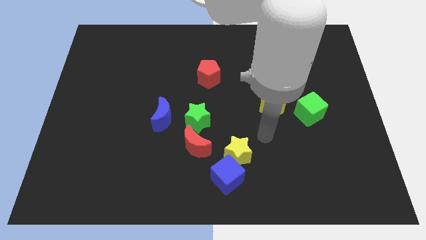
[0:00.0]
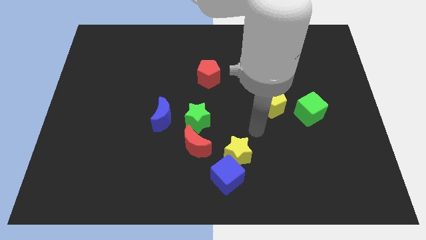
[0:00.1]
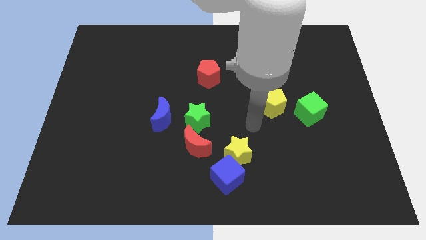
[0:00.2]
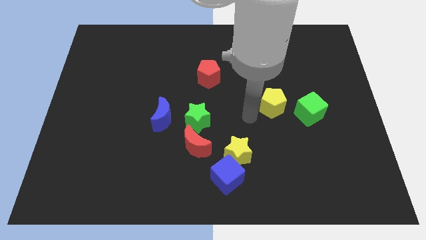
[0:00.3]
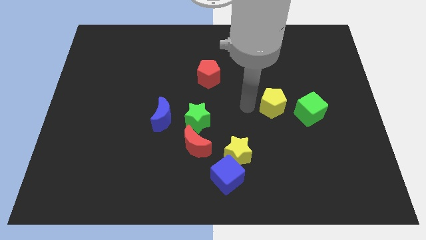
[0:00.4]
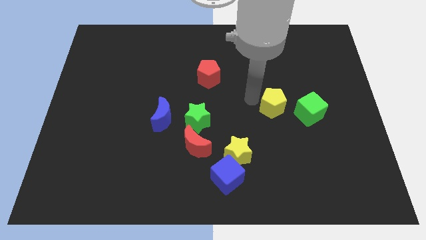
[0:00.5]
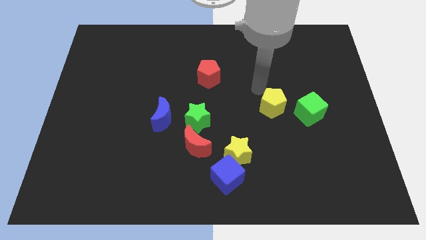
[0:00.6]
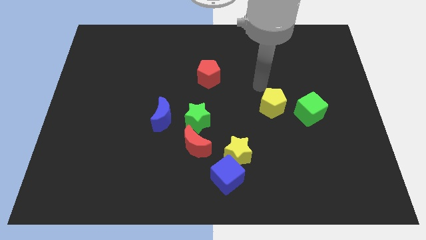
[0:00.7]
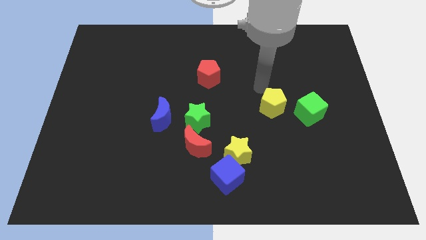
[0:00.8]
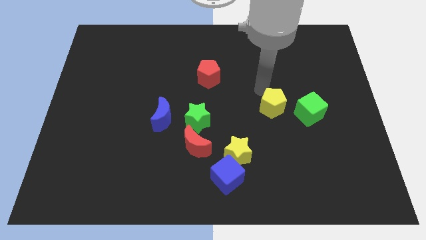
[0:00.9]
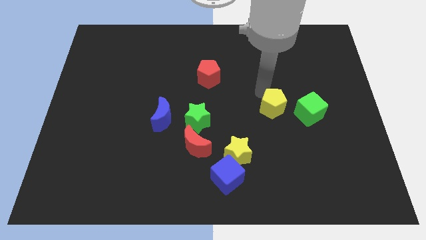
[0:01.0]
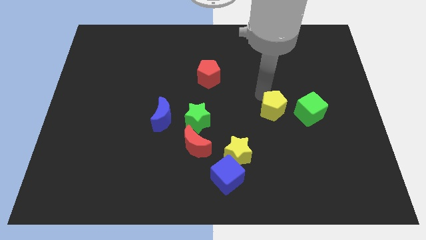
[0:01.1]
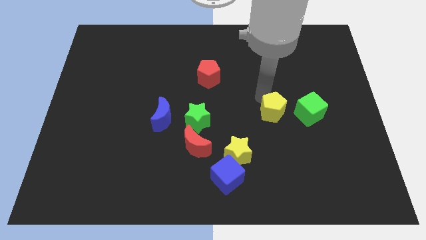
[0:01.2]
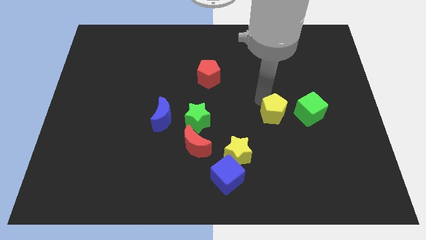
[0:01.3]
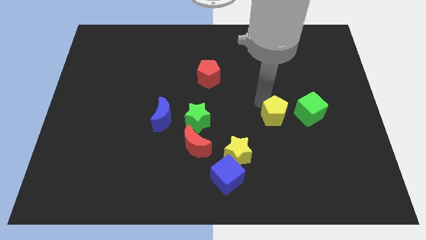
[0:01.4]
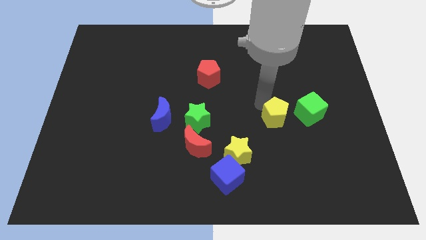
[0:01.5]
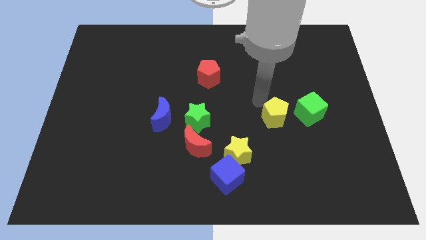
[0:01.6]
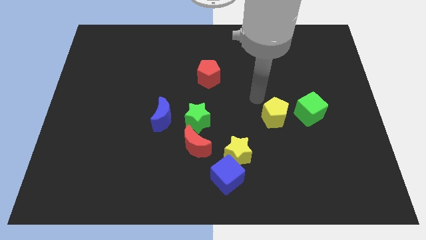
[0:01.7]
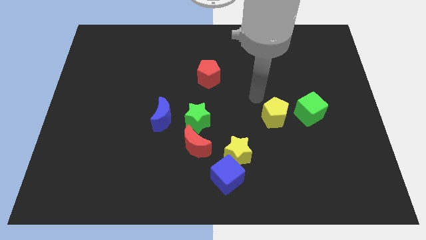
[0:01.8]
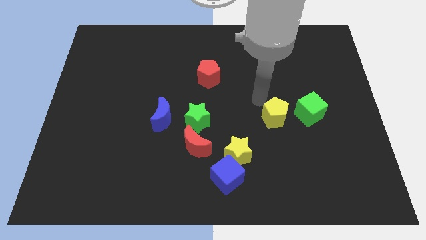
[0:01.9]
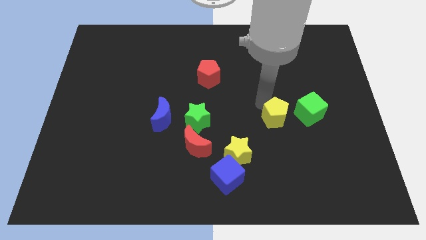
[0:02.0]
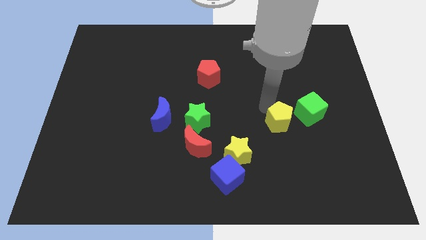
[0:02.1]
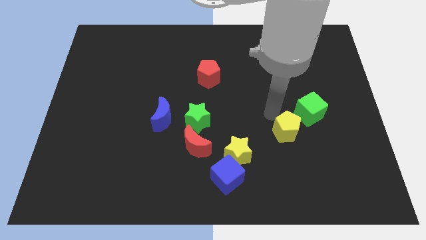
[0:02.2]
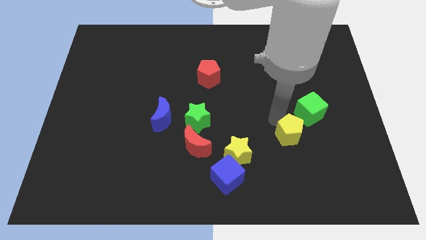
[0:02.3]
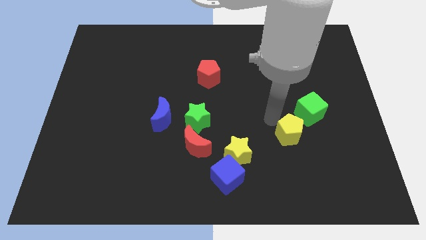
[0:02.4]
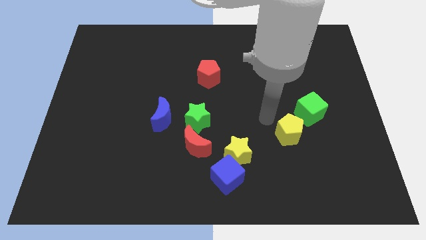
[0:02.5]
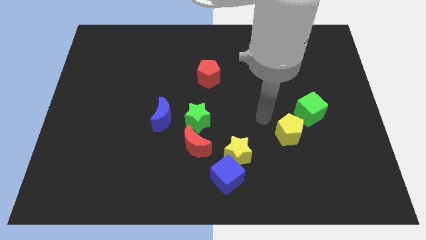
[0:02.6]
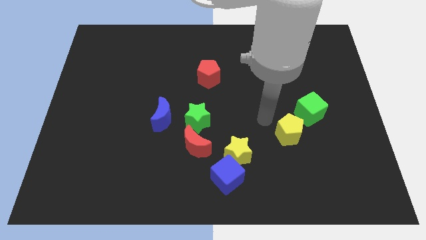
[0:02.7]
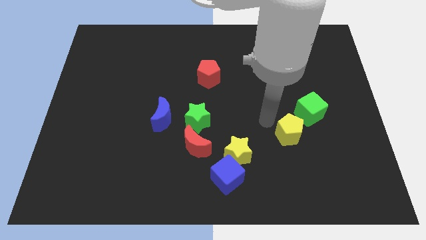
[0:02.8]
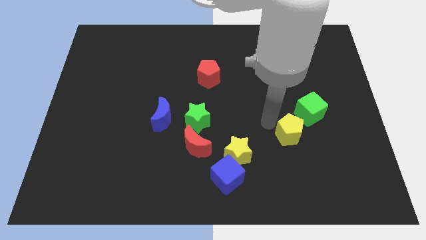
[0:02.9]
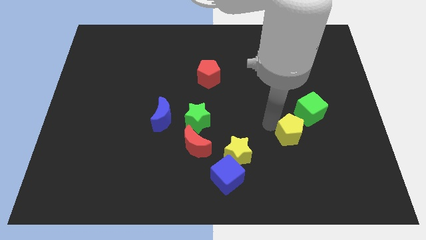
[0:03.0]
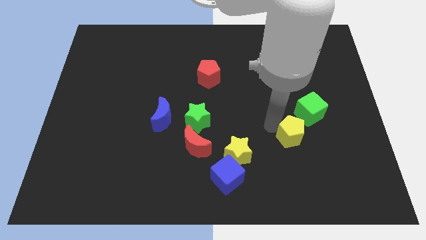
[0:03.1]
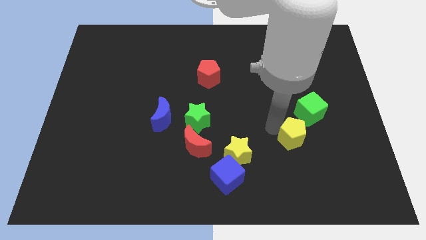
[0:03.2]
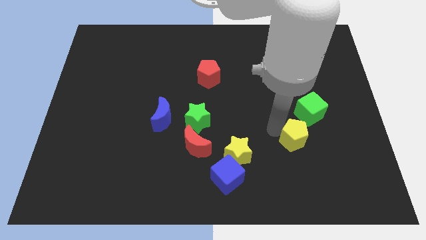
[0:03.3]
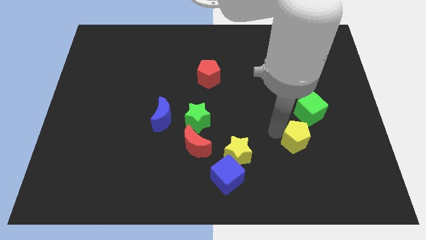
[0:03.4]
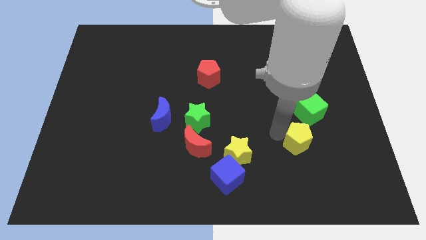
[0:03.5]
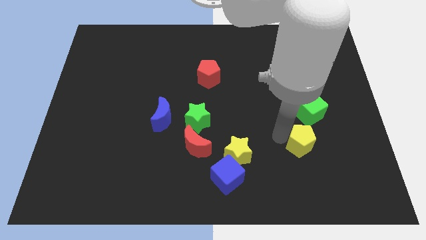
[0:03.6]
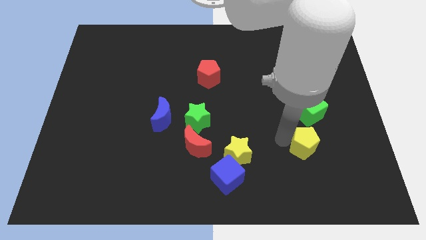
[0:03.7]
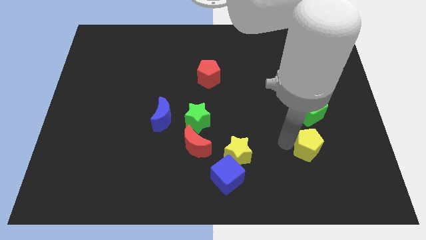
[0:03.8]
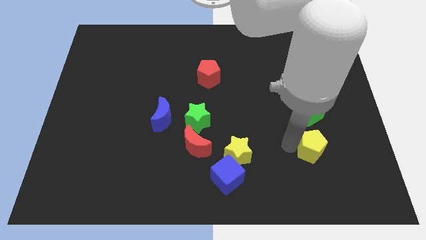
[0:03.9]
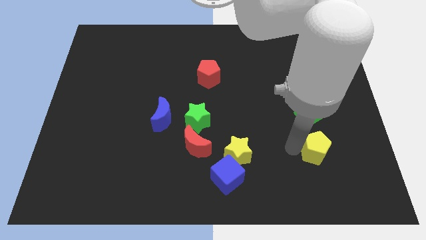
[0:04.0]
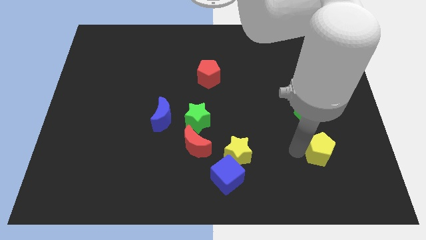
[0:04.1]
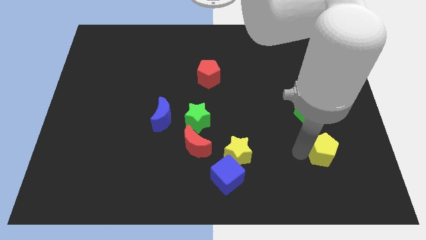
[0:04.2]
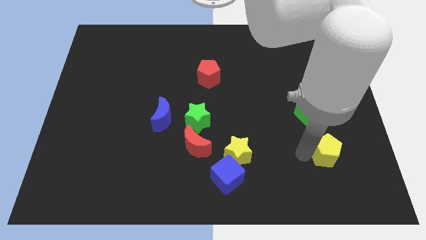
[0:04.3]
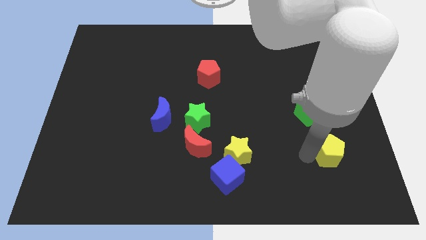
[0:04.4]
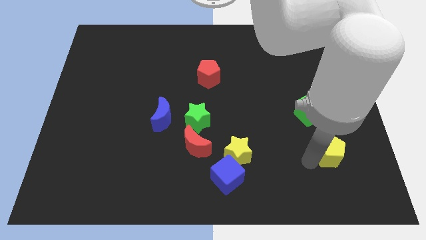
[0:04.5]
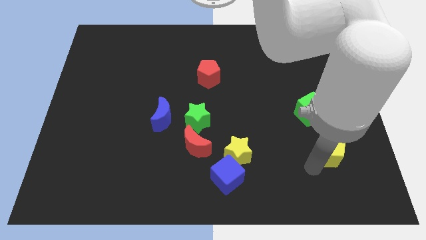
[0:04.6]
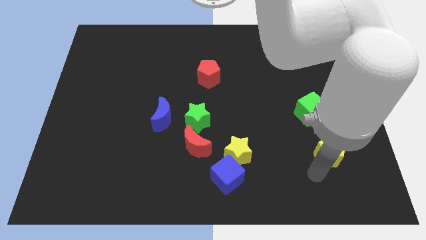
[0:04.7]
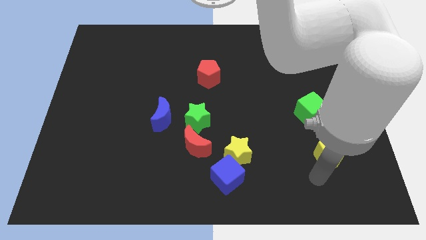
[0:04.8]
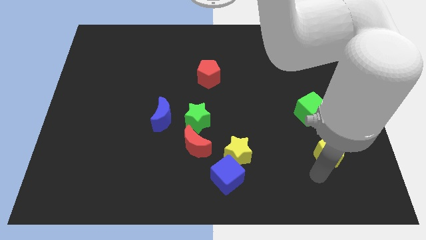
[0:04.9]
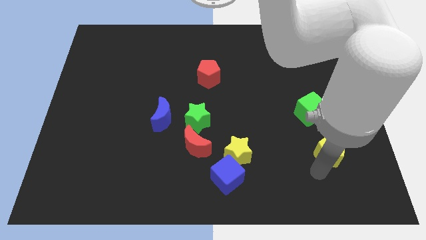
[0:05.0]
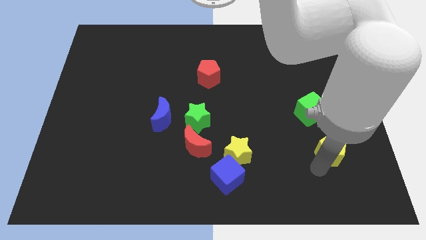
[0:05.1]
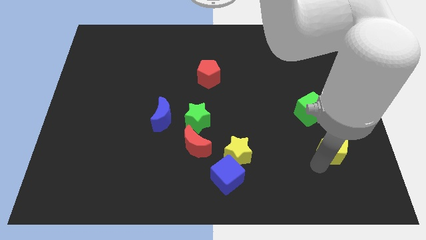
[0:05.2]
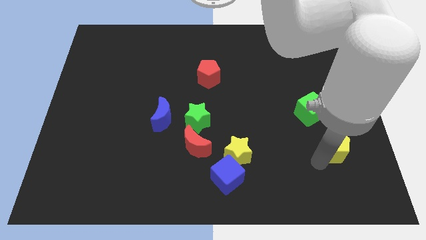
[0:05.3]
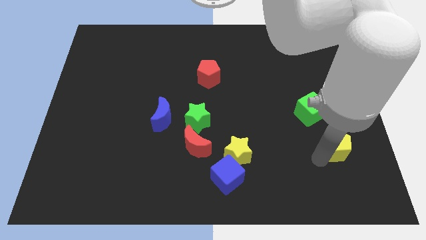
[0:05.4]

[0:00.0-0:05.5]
move the yellow pentagon to the bottom right side of the green cube

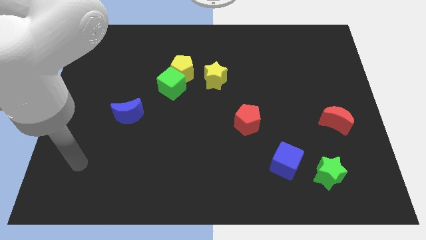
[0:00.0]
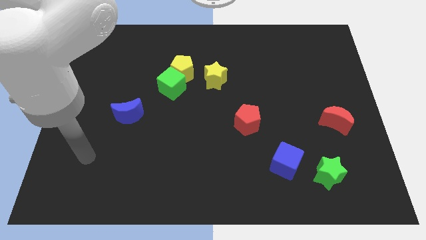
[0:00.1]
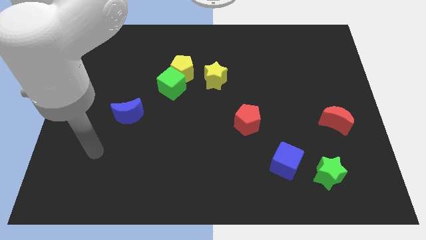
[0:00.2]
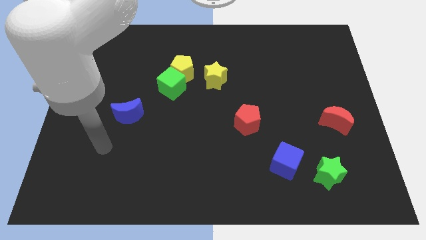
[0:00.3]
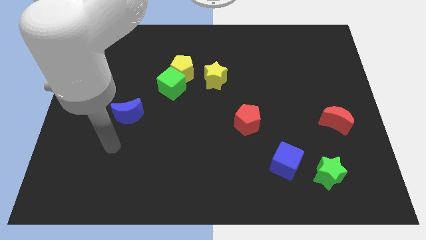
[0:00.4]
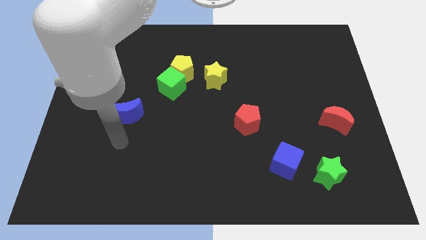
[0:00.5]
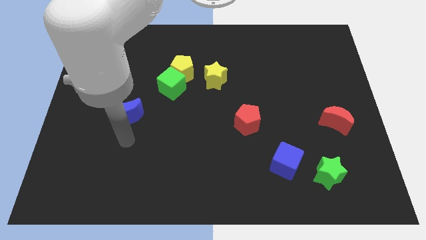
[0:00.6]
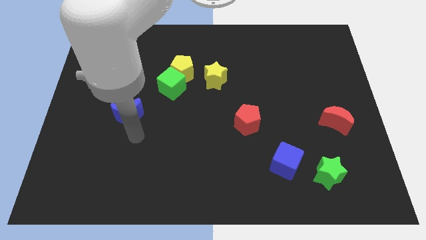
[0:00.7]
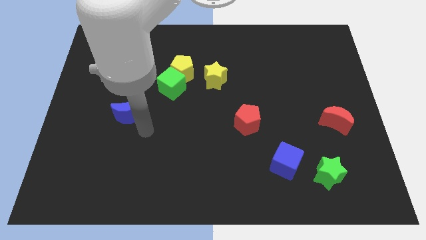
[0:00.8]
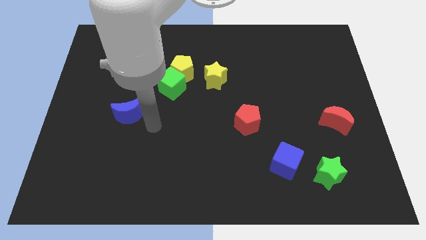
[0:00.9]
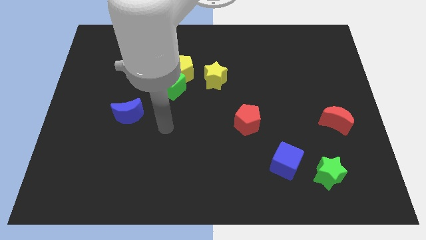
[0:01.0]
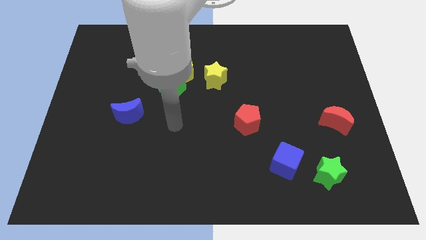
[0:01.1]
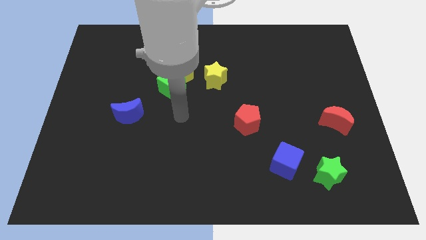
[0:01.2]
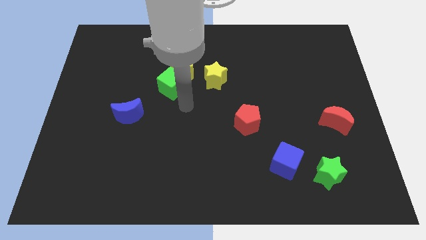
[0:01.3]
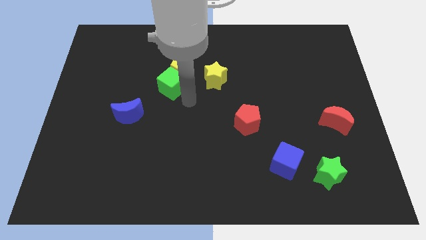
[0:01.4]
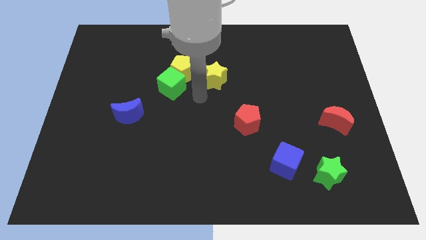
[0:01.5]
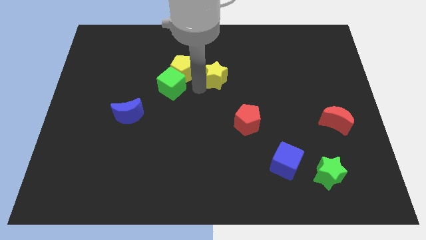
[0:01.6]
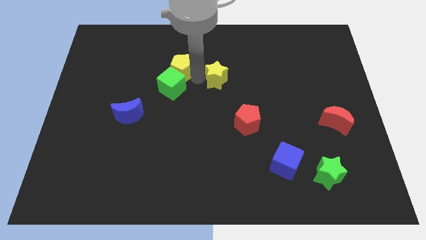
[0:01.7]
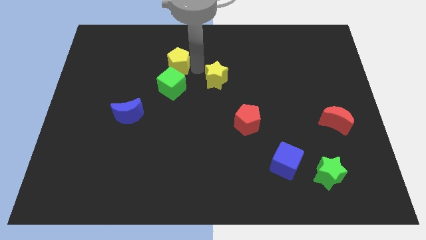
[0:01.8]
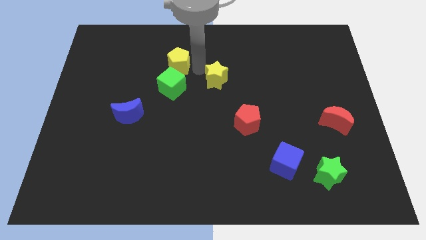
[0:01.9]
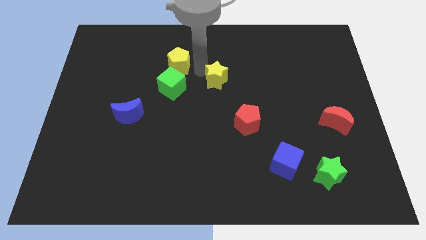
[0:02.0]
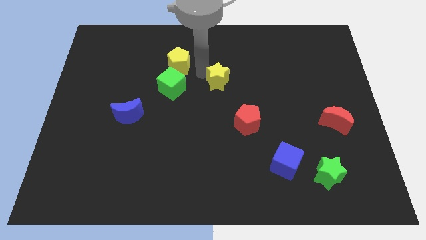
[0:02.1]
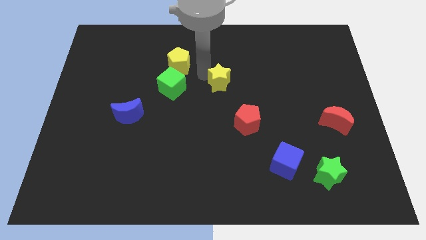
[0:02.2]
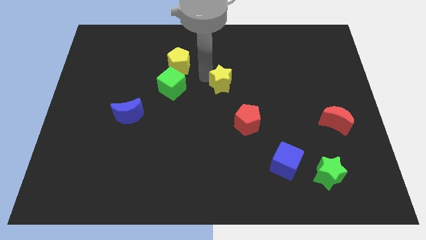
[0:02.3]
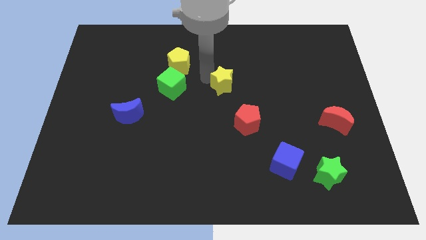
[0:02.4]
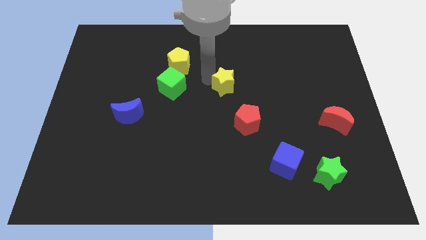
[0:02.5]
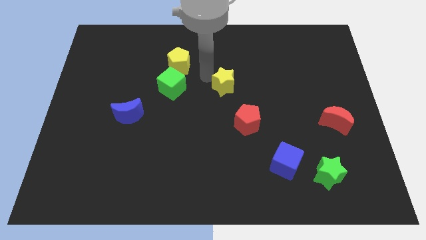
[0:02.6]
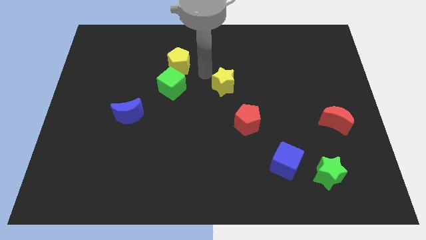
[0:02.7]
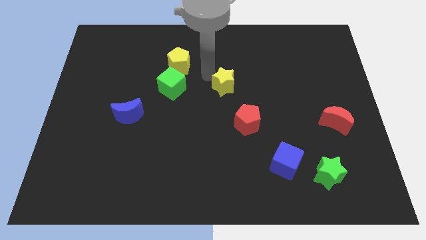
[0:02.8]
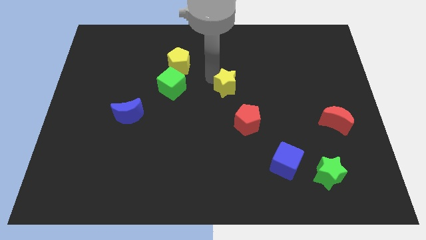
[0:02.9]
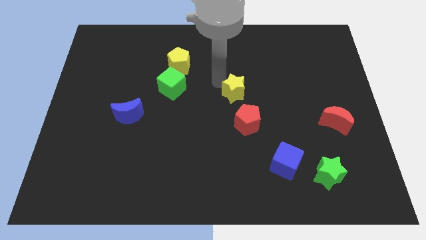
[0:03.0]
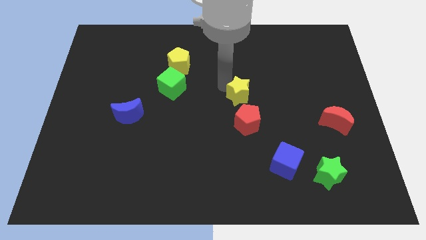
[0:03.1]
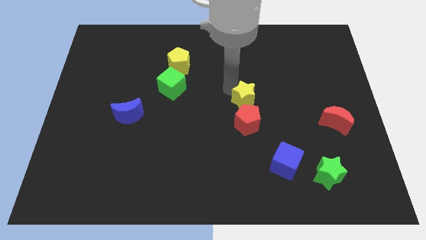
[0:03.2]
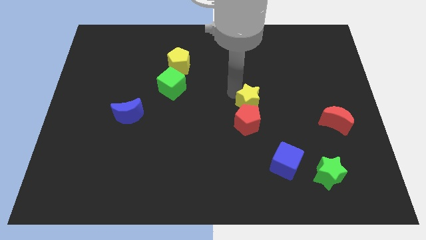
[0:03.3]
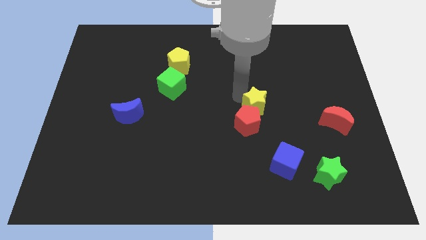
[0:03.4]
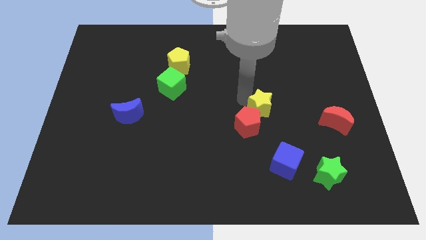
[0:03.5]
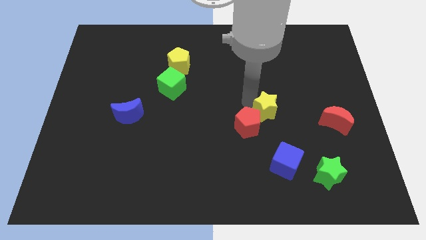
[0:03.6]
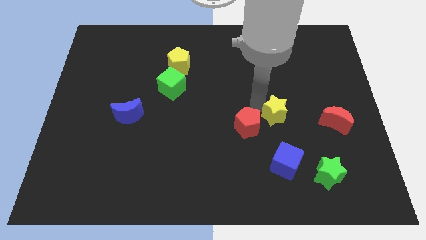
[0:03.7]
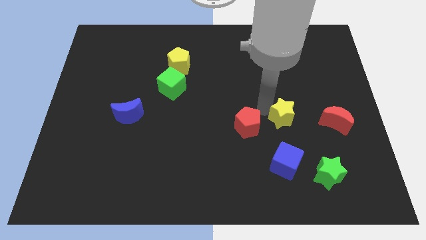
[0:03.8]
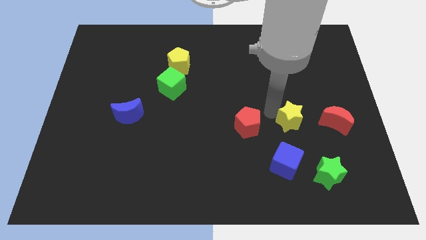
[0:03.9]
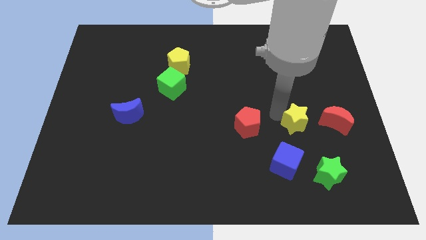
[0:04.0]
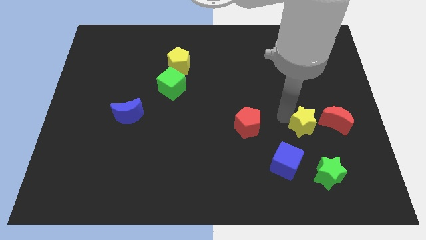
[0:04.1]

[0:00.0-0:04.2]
put the yellow star diagonally down and to the left of the red moon
